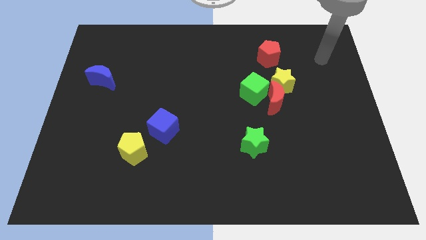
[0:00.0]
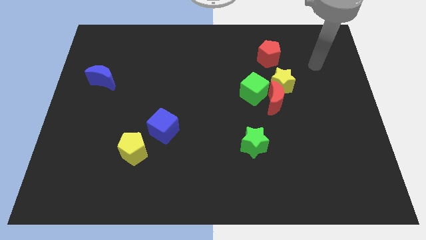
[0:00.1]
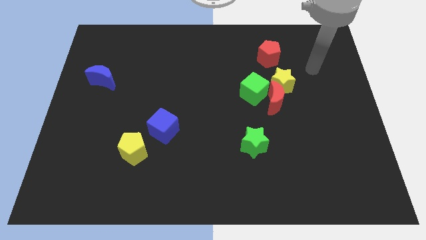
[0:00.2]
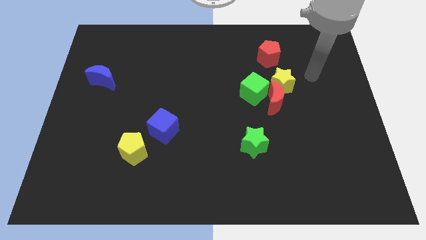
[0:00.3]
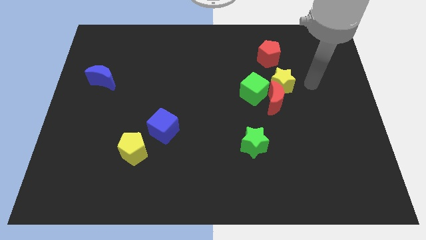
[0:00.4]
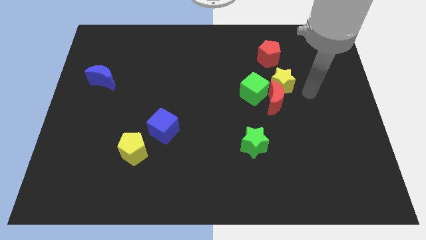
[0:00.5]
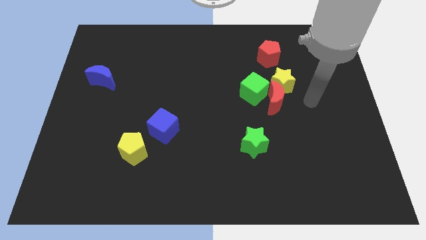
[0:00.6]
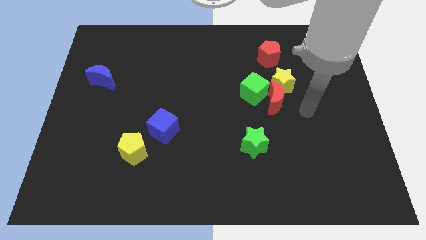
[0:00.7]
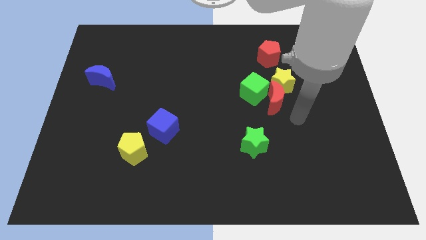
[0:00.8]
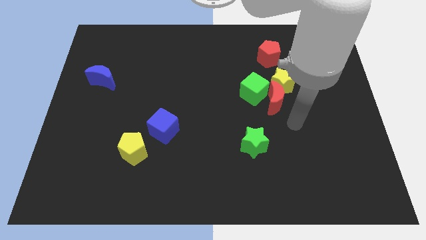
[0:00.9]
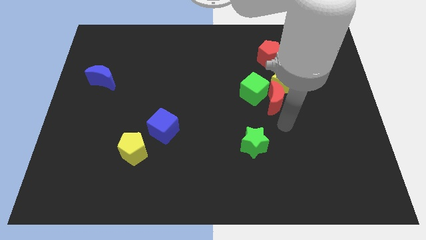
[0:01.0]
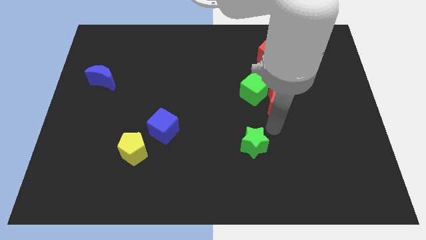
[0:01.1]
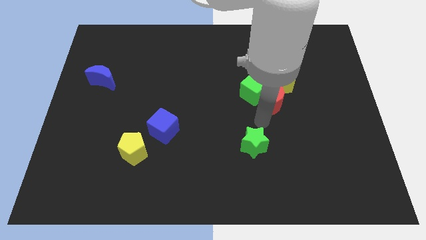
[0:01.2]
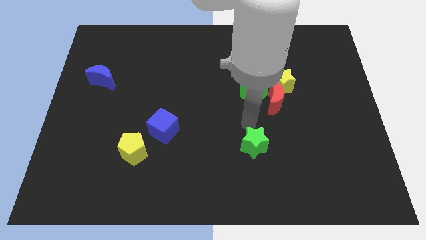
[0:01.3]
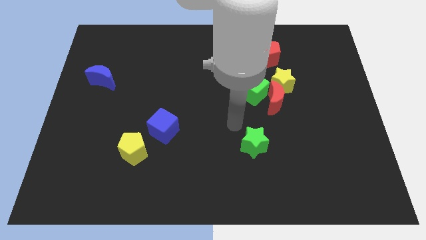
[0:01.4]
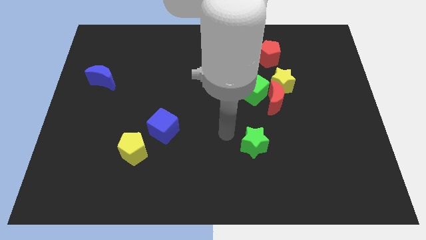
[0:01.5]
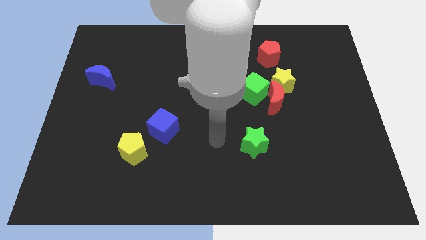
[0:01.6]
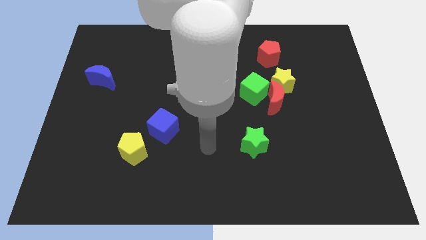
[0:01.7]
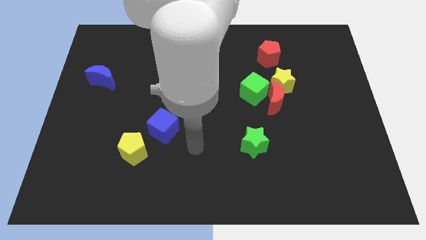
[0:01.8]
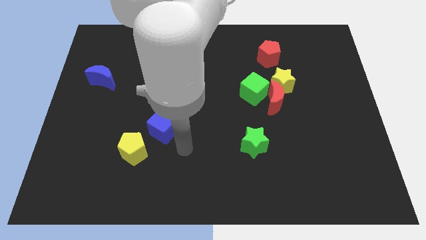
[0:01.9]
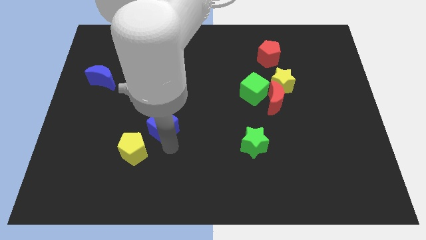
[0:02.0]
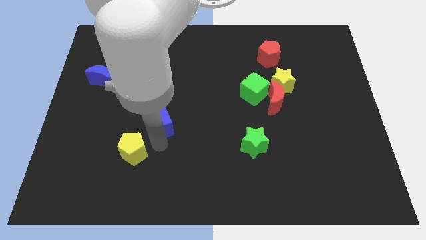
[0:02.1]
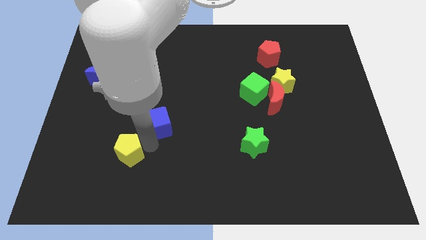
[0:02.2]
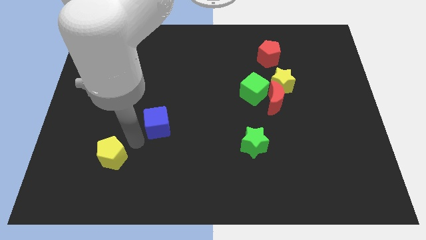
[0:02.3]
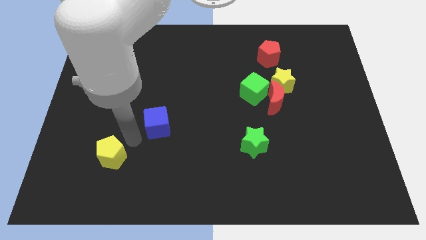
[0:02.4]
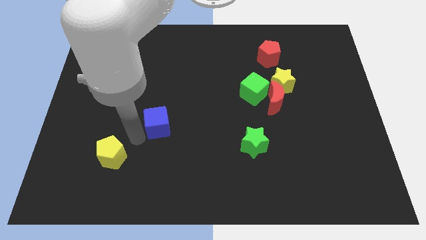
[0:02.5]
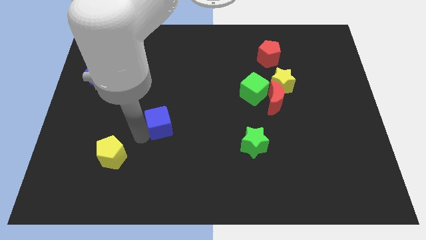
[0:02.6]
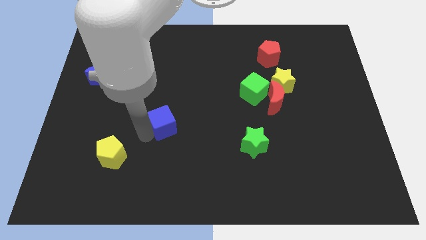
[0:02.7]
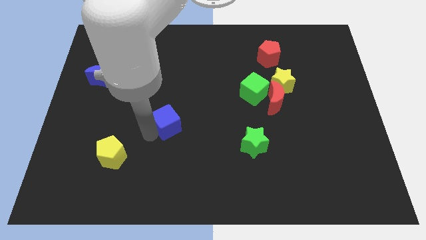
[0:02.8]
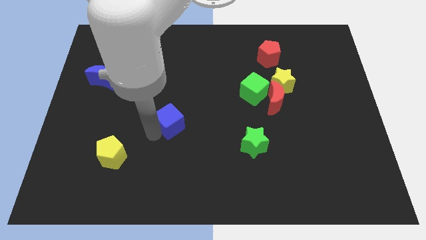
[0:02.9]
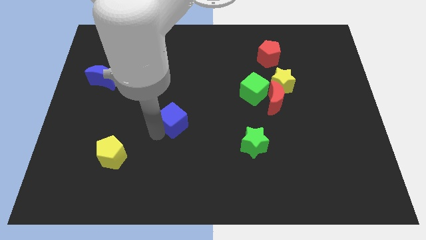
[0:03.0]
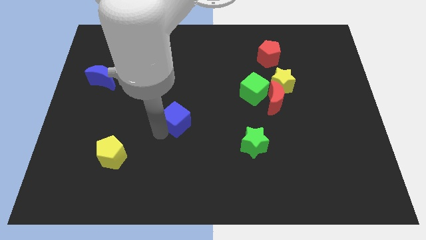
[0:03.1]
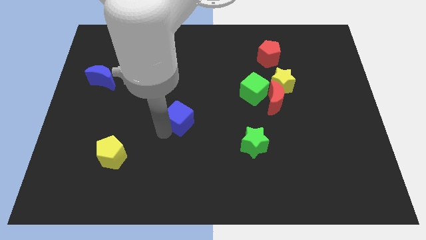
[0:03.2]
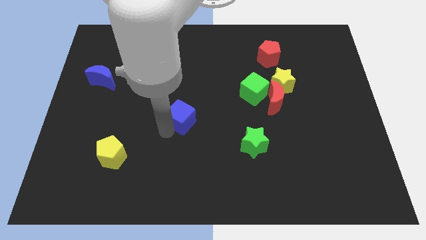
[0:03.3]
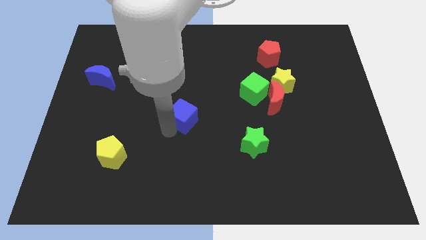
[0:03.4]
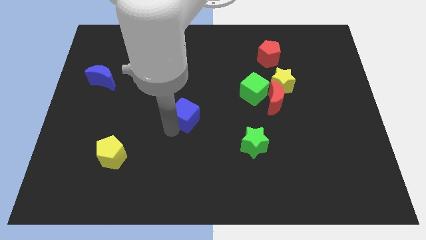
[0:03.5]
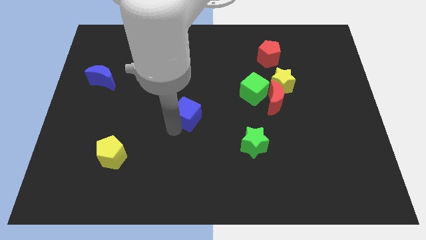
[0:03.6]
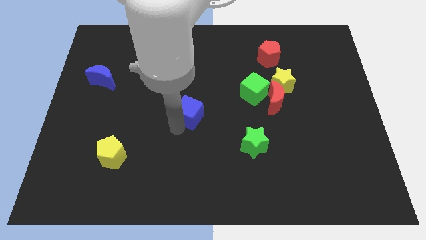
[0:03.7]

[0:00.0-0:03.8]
slide the blue cube a bit up and to the right

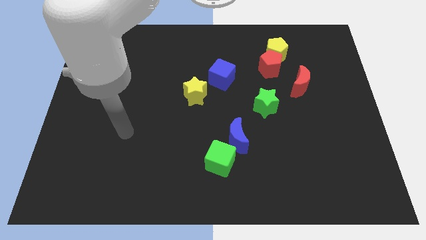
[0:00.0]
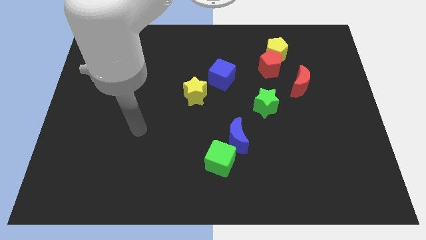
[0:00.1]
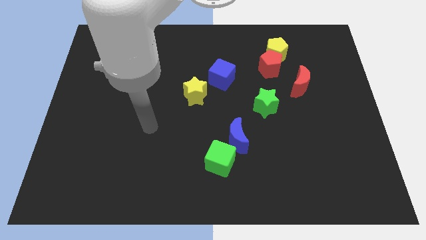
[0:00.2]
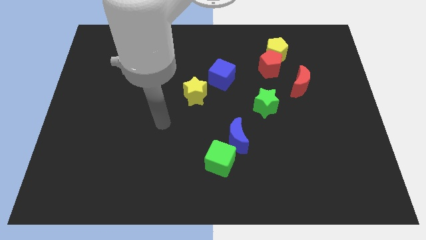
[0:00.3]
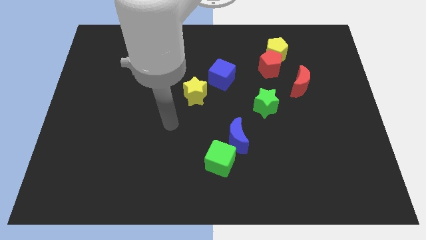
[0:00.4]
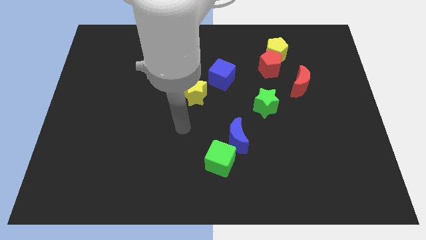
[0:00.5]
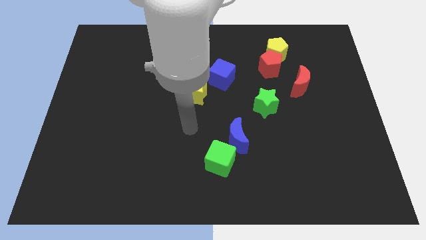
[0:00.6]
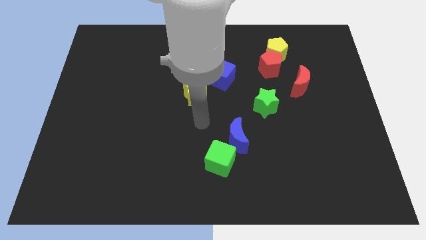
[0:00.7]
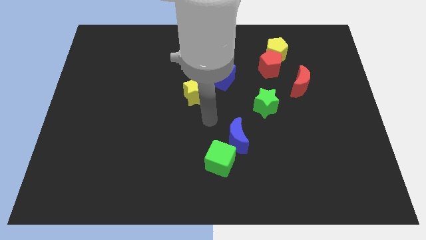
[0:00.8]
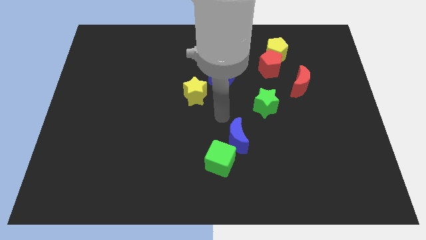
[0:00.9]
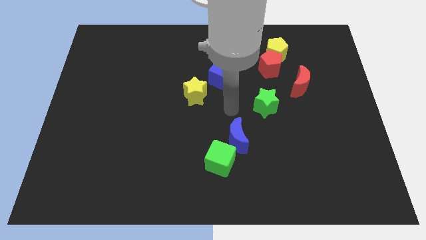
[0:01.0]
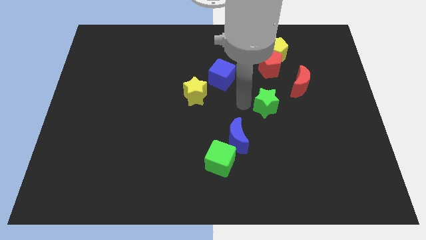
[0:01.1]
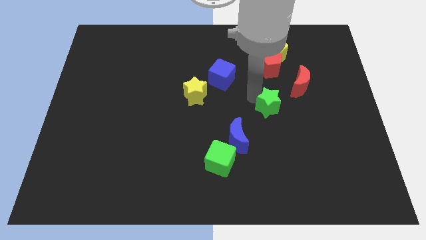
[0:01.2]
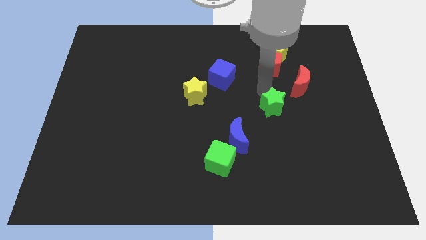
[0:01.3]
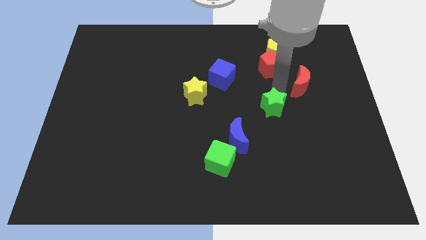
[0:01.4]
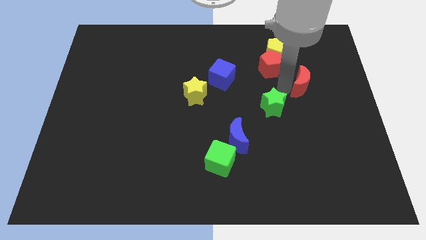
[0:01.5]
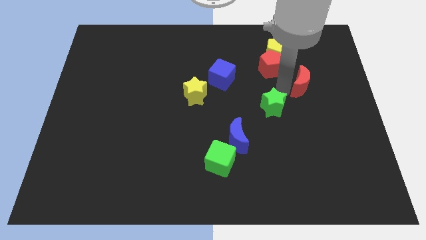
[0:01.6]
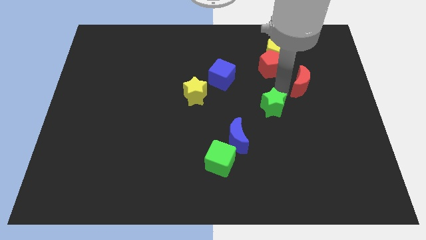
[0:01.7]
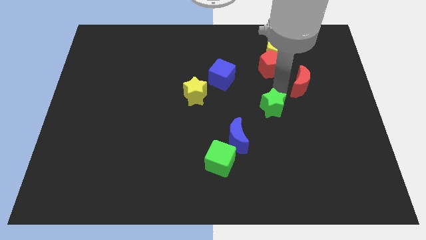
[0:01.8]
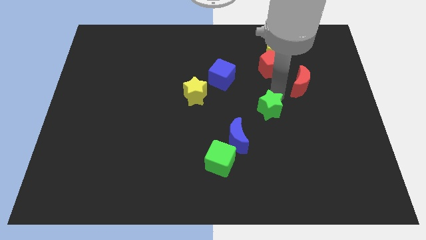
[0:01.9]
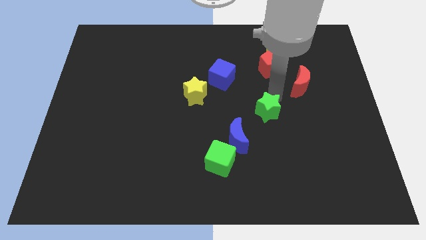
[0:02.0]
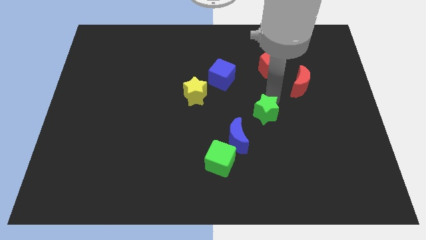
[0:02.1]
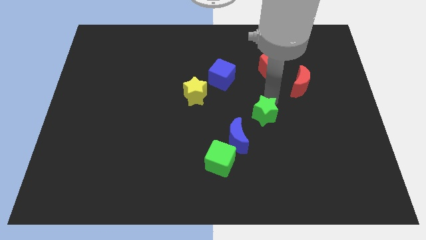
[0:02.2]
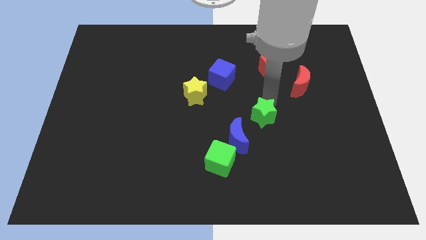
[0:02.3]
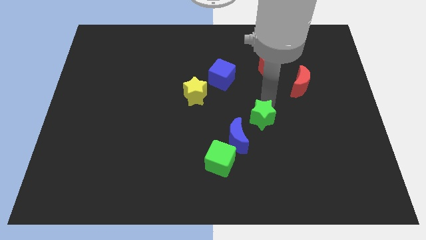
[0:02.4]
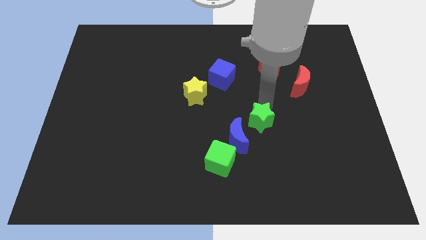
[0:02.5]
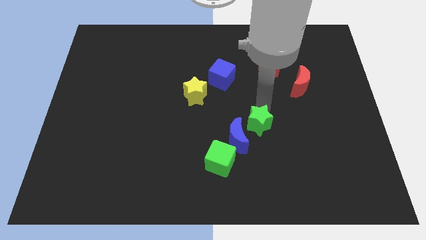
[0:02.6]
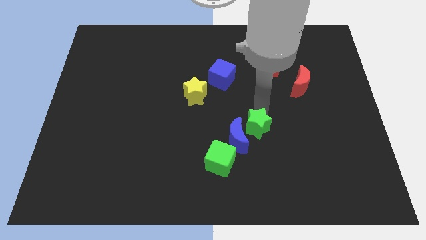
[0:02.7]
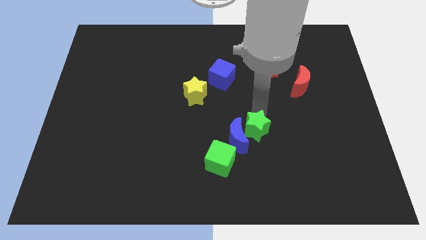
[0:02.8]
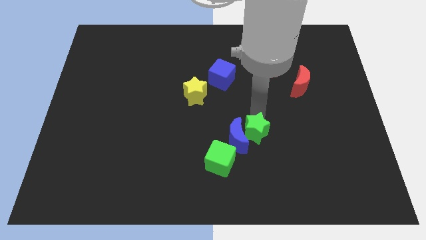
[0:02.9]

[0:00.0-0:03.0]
slide the green star downwards slightly

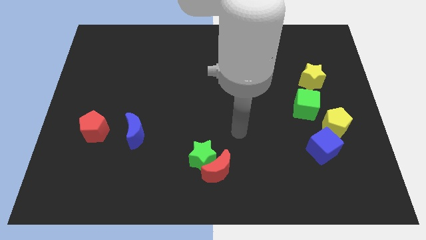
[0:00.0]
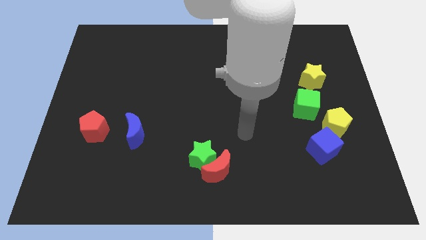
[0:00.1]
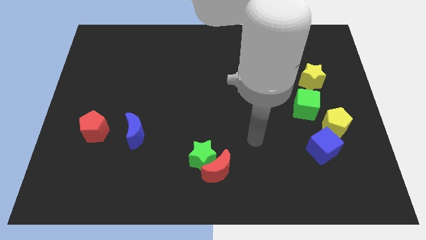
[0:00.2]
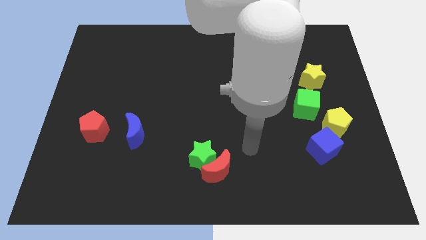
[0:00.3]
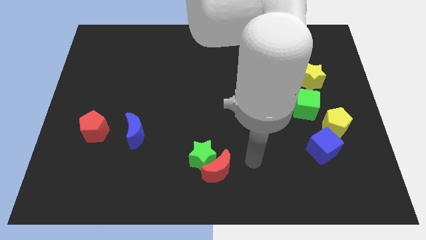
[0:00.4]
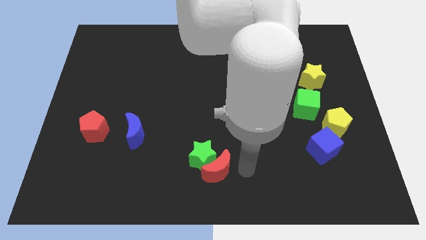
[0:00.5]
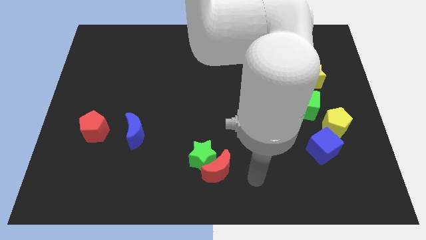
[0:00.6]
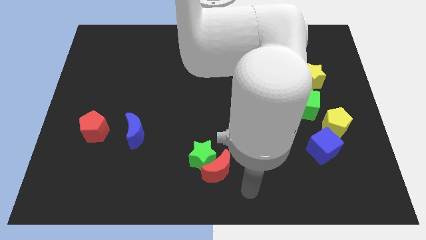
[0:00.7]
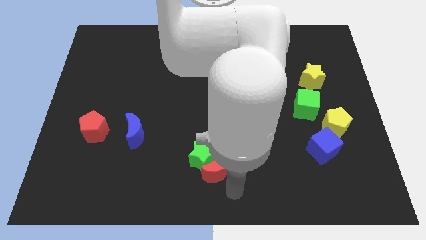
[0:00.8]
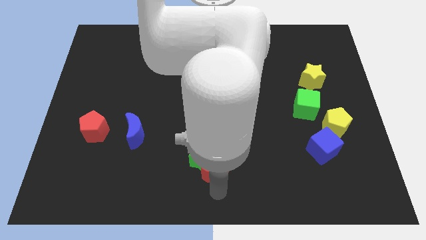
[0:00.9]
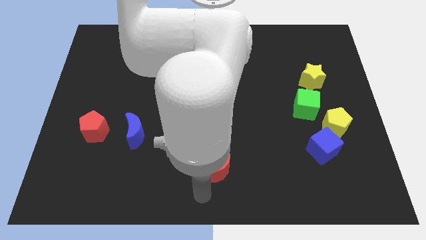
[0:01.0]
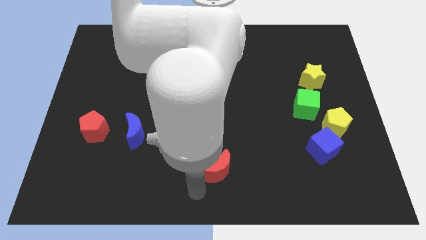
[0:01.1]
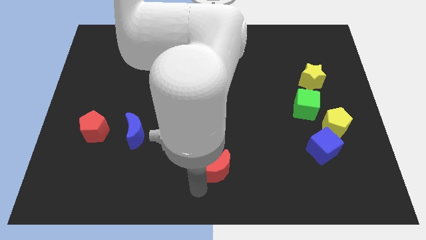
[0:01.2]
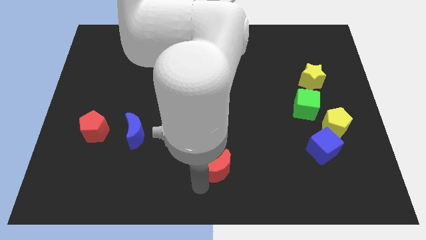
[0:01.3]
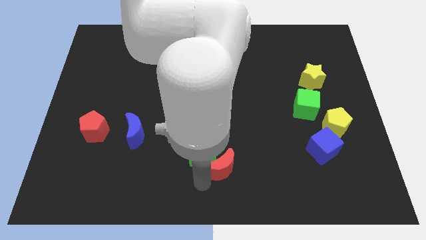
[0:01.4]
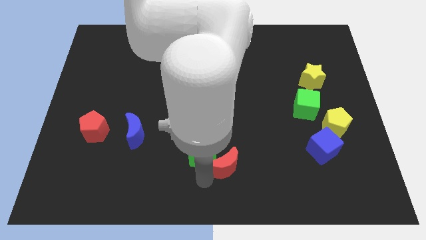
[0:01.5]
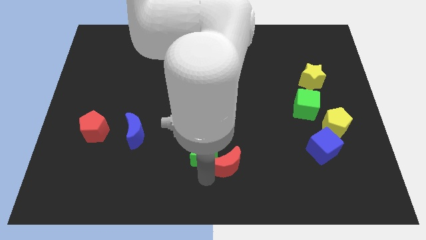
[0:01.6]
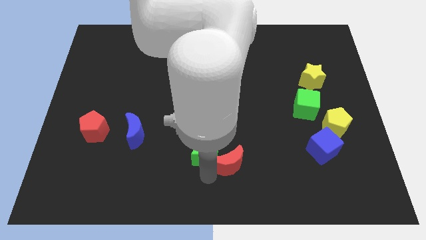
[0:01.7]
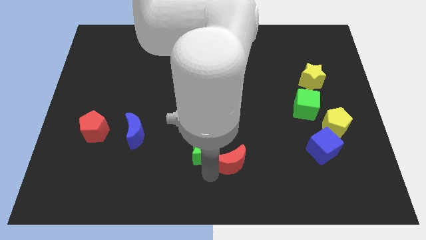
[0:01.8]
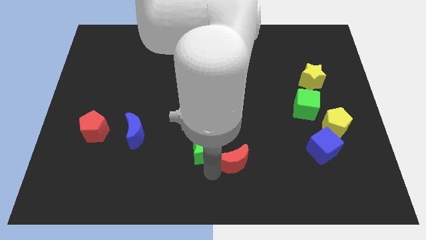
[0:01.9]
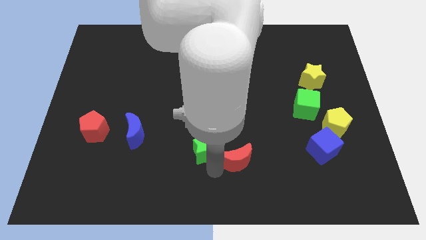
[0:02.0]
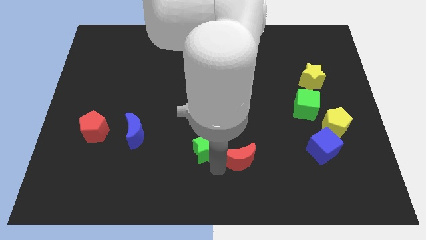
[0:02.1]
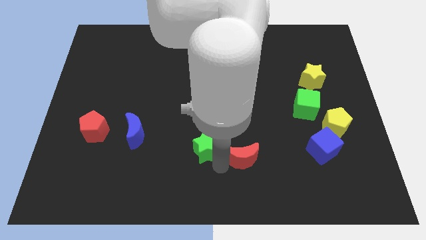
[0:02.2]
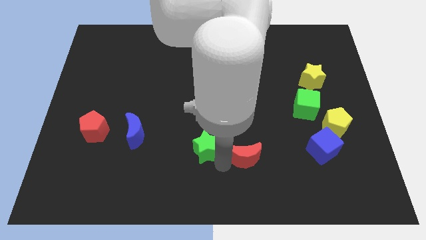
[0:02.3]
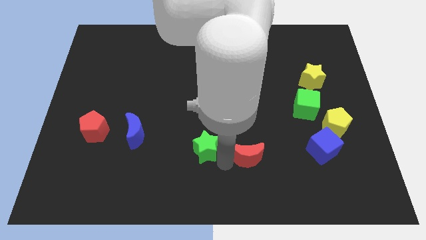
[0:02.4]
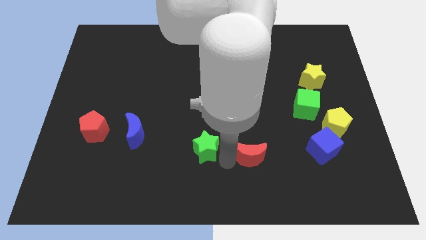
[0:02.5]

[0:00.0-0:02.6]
push the red moon a bit diagonally up and to the right
